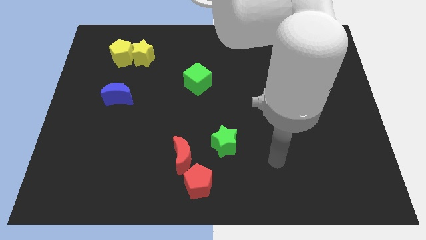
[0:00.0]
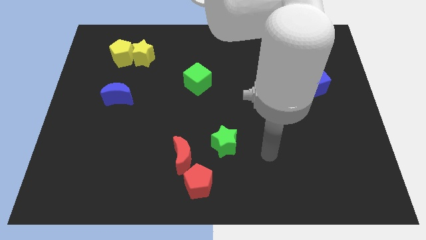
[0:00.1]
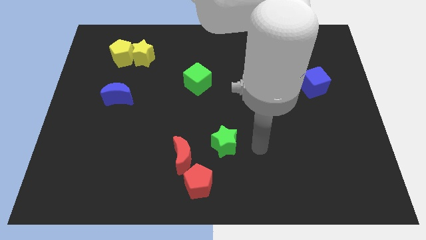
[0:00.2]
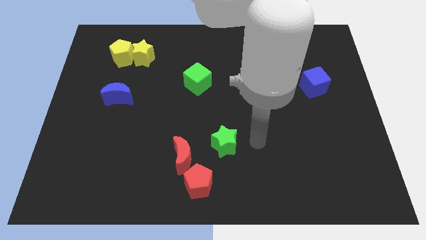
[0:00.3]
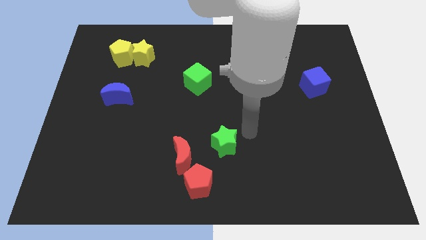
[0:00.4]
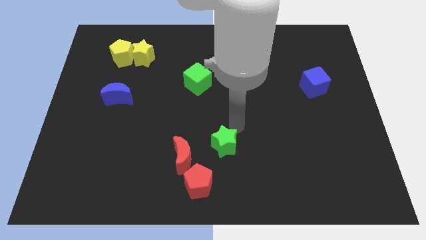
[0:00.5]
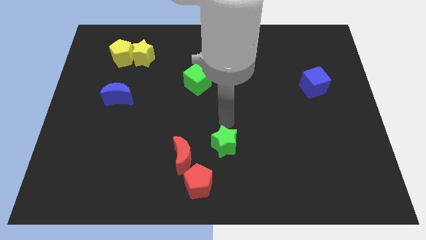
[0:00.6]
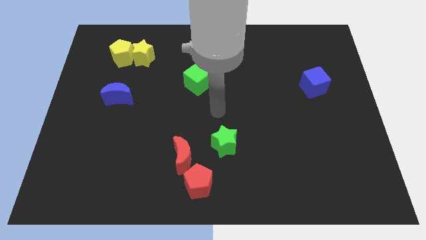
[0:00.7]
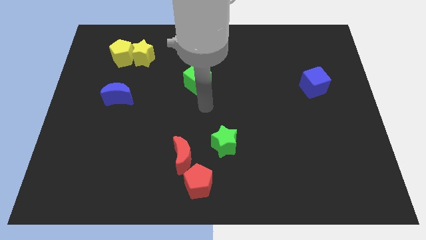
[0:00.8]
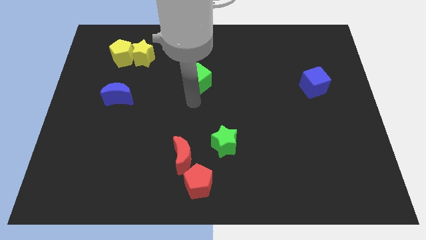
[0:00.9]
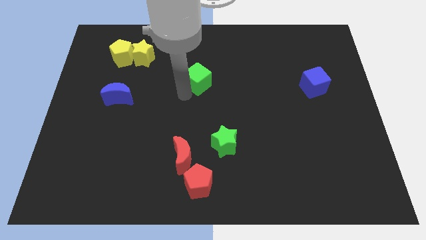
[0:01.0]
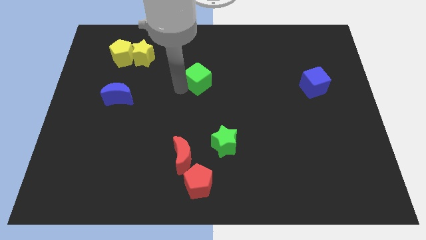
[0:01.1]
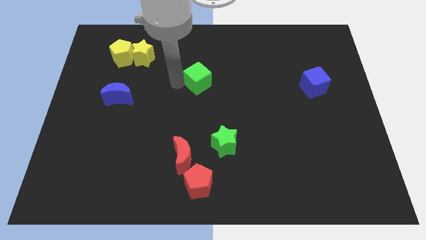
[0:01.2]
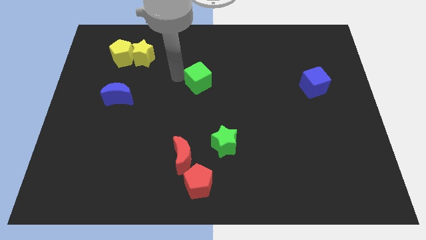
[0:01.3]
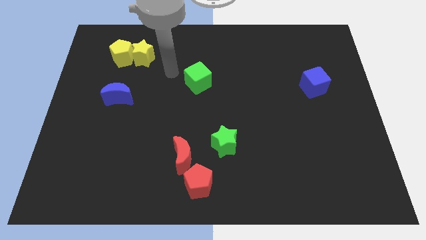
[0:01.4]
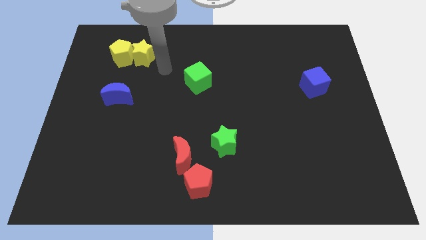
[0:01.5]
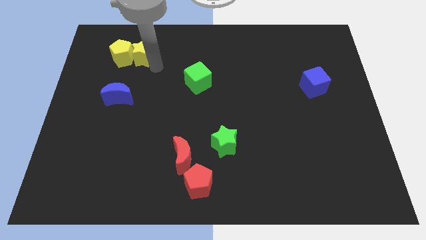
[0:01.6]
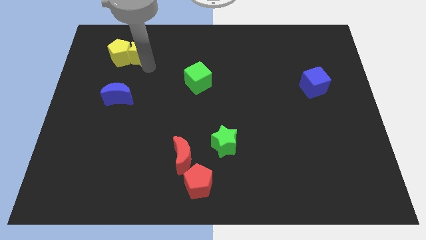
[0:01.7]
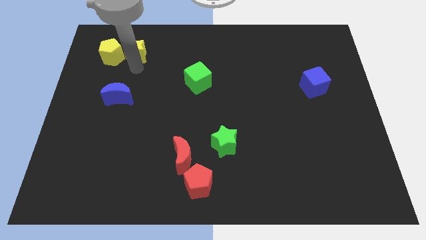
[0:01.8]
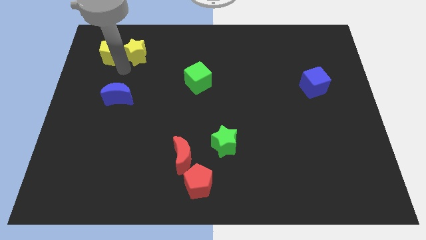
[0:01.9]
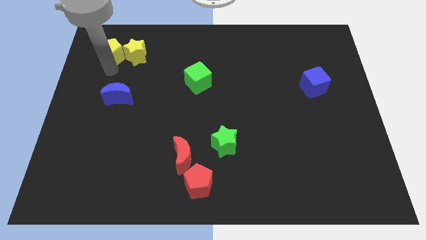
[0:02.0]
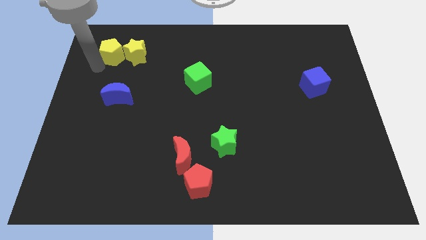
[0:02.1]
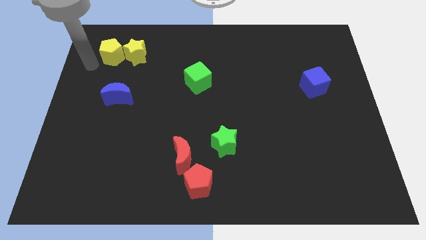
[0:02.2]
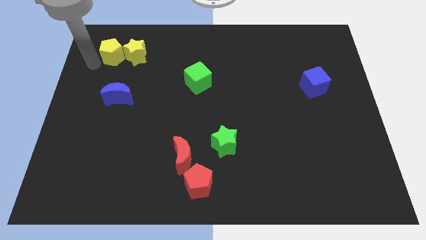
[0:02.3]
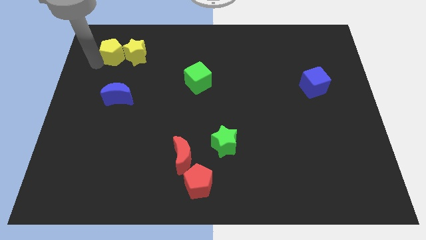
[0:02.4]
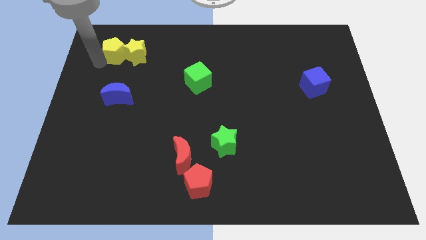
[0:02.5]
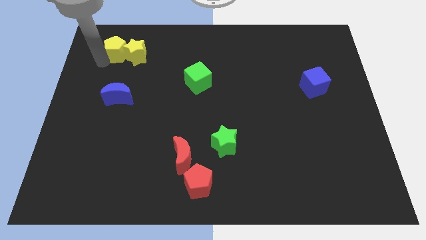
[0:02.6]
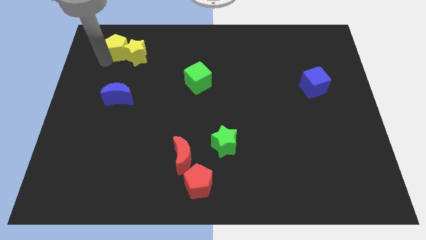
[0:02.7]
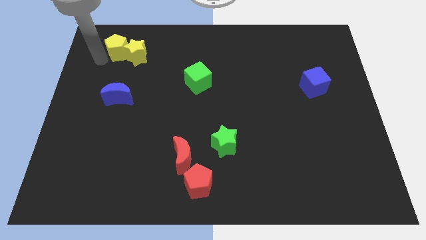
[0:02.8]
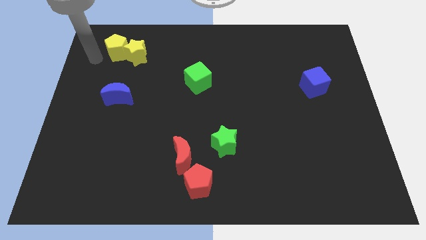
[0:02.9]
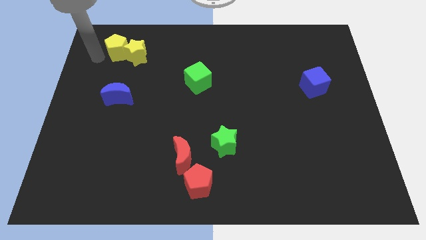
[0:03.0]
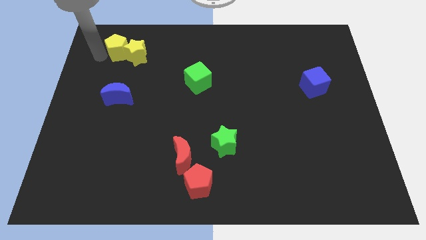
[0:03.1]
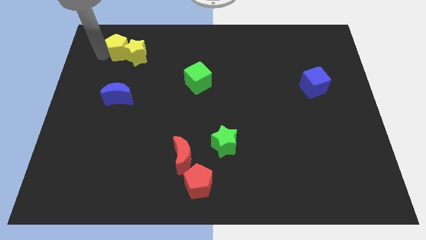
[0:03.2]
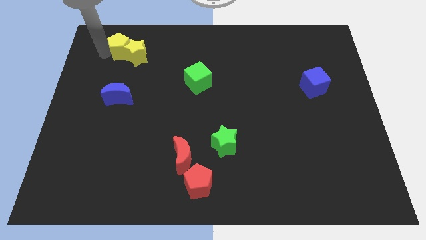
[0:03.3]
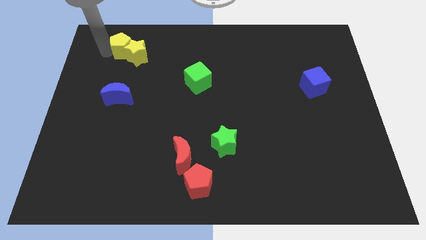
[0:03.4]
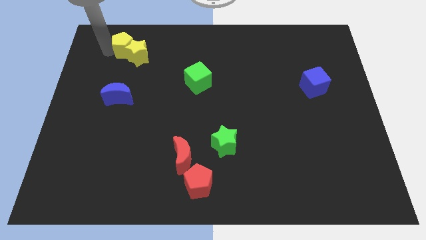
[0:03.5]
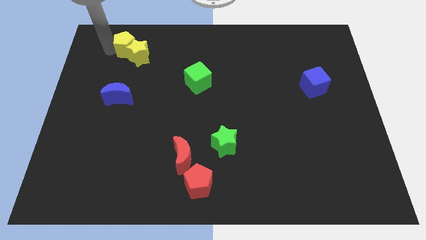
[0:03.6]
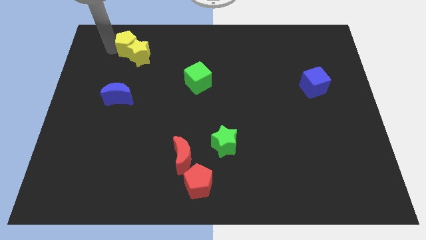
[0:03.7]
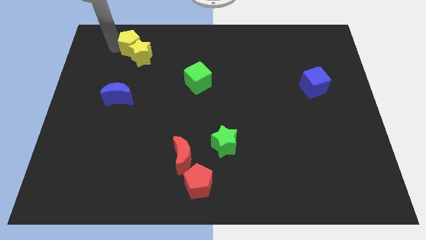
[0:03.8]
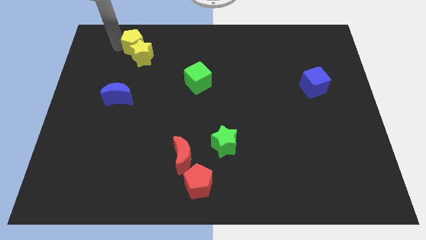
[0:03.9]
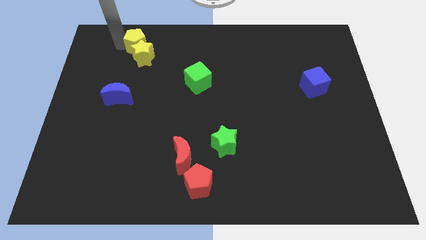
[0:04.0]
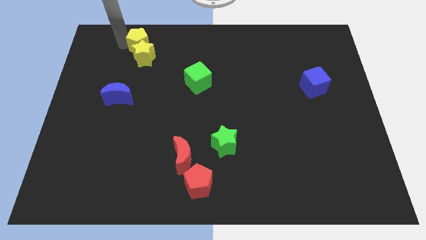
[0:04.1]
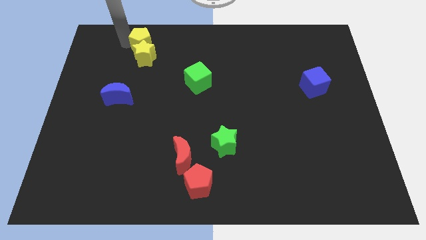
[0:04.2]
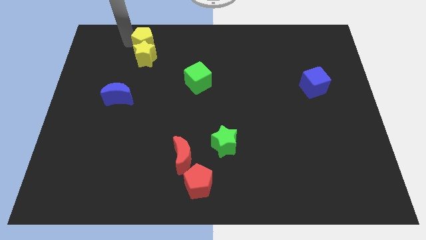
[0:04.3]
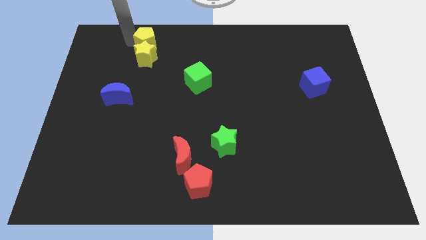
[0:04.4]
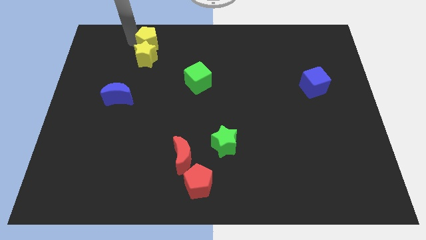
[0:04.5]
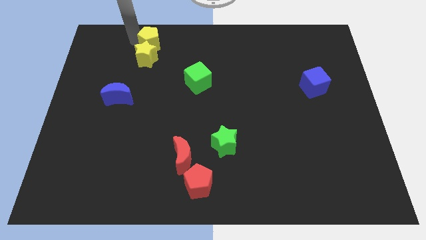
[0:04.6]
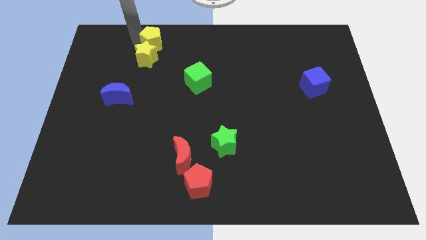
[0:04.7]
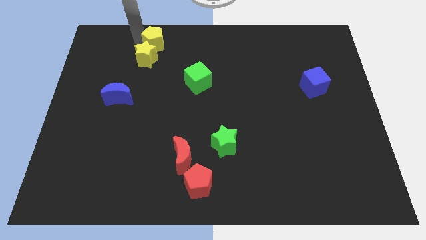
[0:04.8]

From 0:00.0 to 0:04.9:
move the yellow pentagon to the right a bit

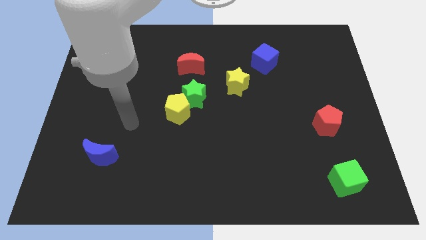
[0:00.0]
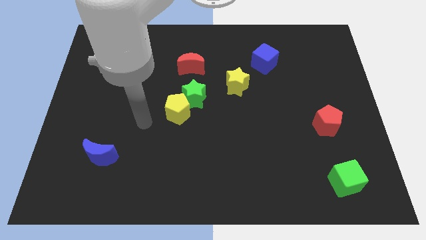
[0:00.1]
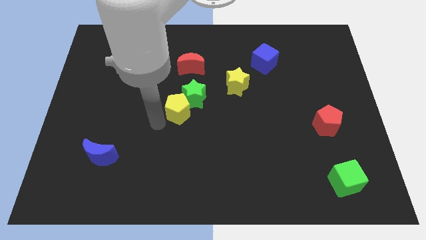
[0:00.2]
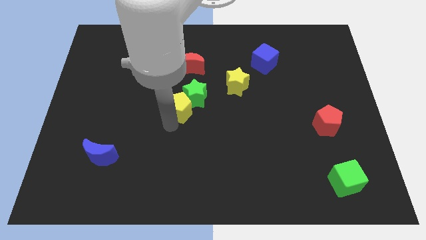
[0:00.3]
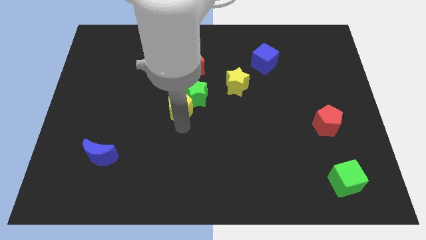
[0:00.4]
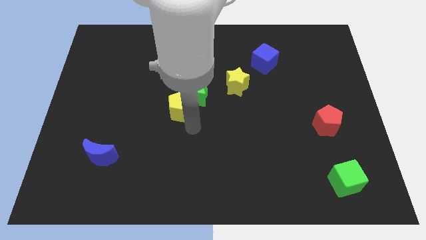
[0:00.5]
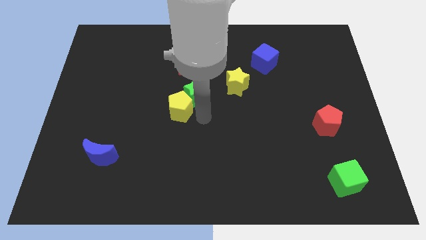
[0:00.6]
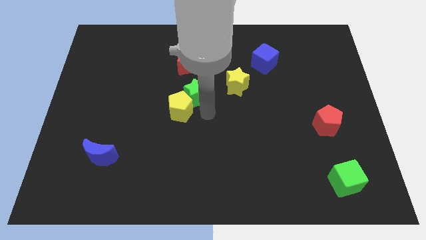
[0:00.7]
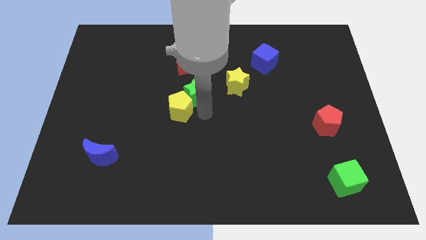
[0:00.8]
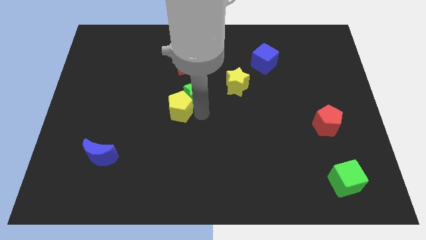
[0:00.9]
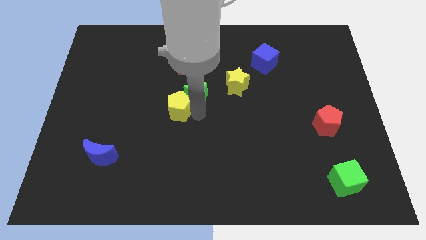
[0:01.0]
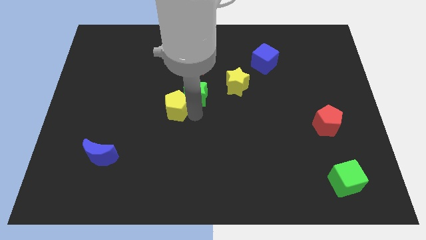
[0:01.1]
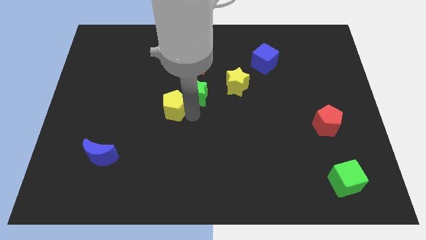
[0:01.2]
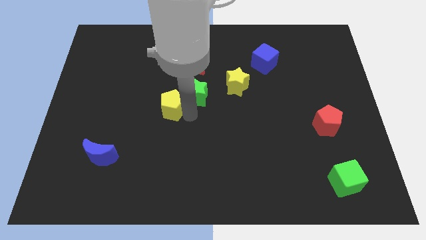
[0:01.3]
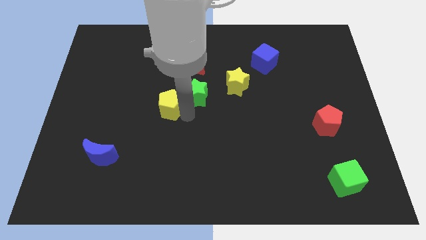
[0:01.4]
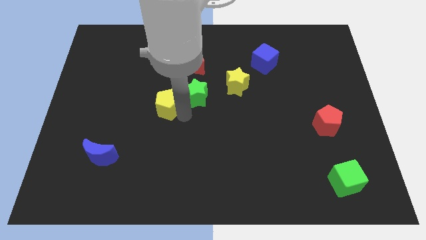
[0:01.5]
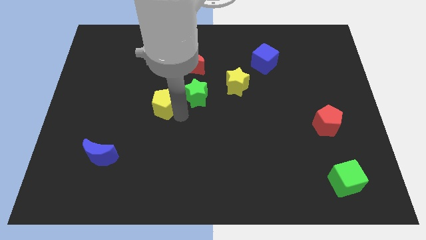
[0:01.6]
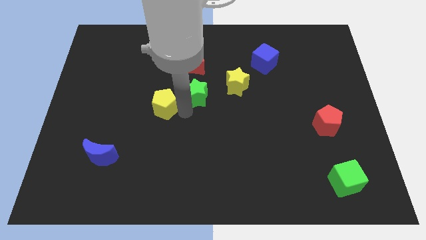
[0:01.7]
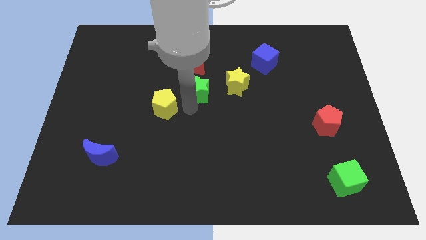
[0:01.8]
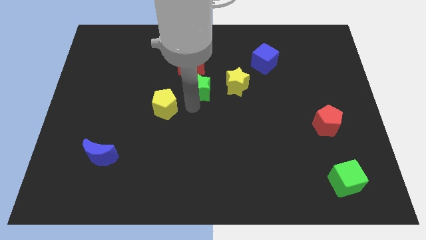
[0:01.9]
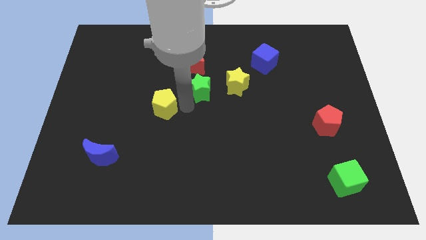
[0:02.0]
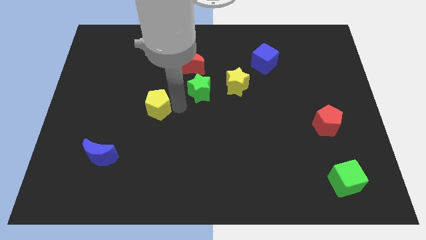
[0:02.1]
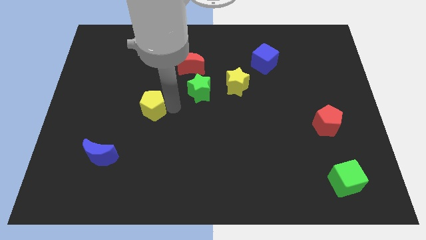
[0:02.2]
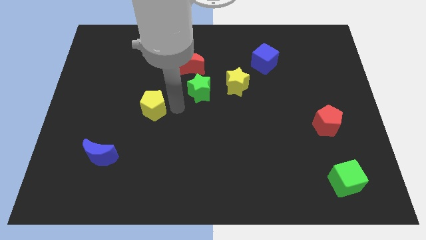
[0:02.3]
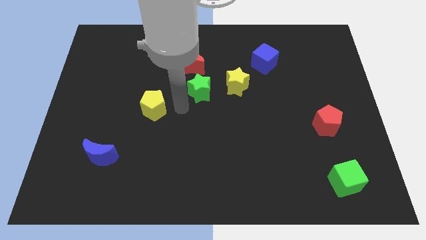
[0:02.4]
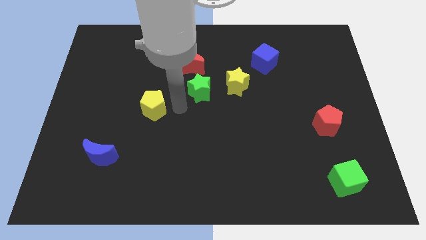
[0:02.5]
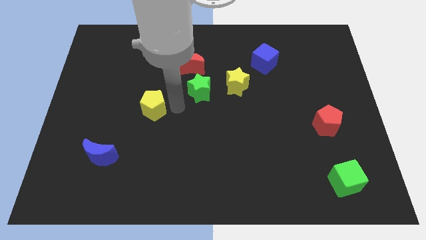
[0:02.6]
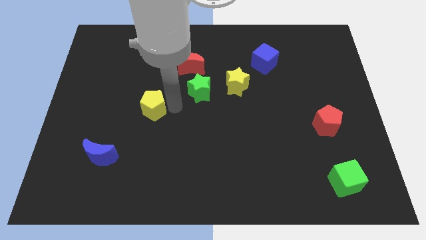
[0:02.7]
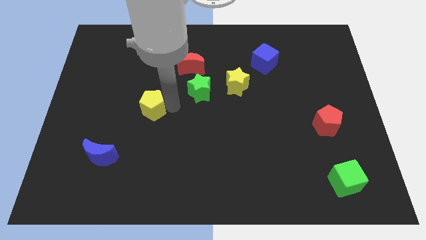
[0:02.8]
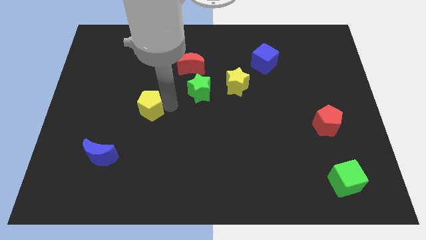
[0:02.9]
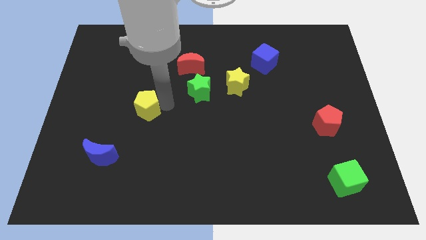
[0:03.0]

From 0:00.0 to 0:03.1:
move the yellow pentagon left a little
